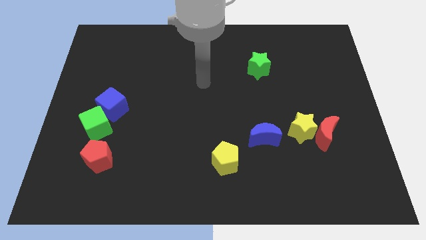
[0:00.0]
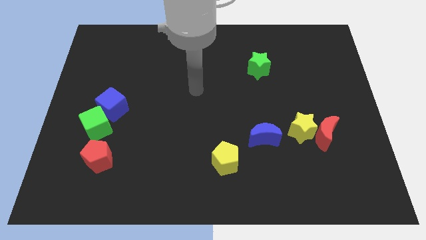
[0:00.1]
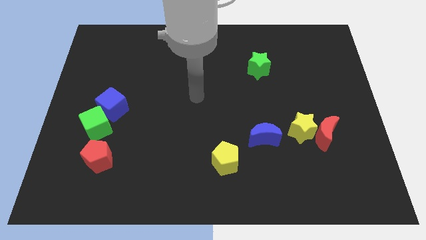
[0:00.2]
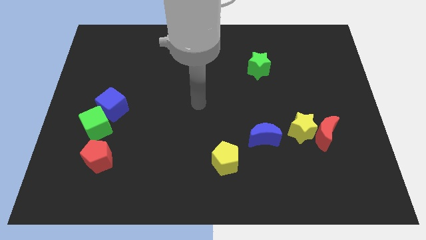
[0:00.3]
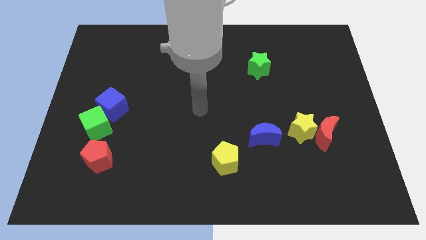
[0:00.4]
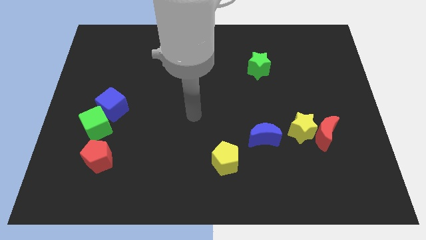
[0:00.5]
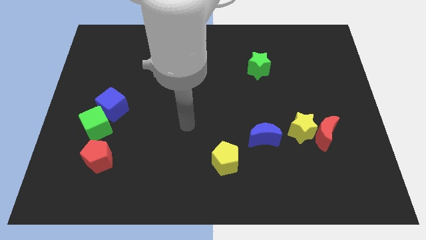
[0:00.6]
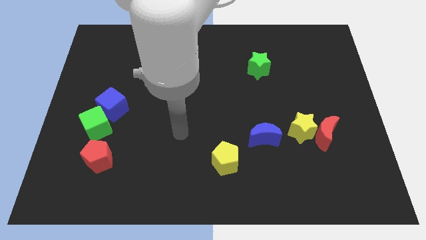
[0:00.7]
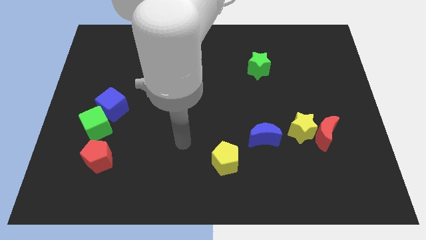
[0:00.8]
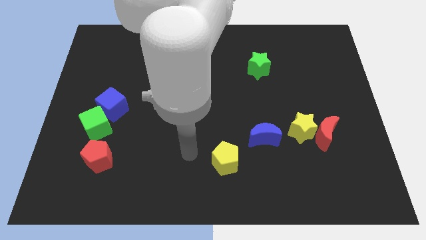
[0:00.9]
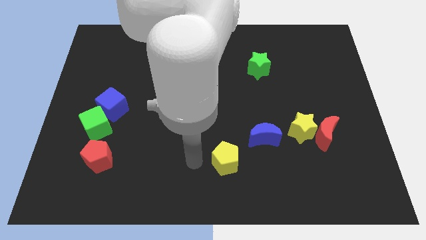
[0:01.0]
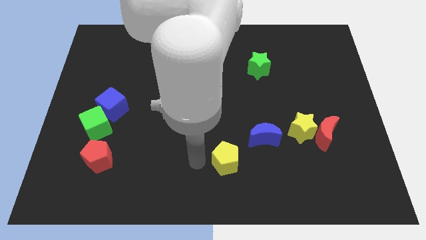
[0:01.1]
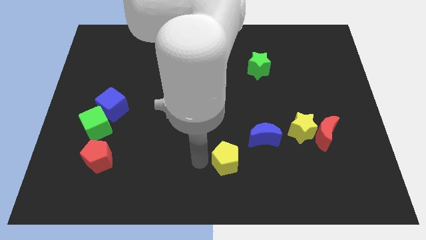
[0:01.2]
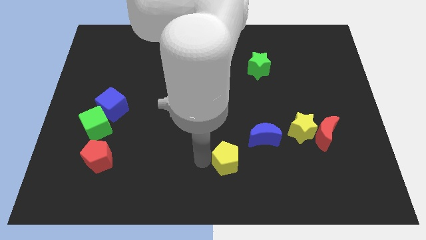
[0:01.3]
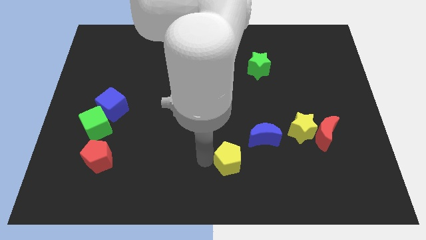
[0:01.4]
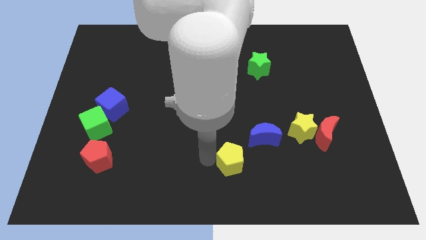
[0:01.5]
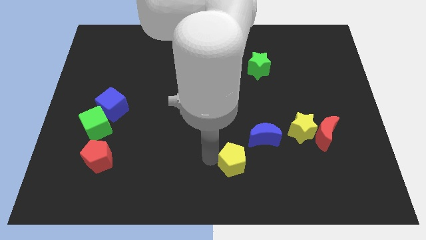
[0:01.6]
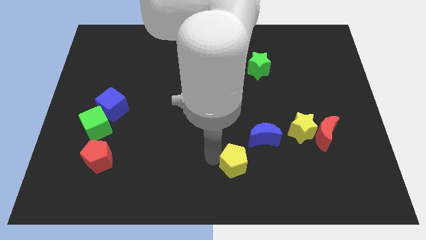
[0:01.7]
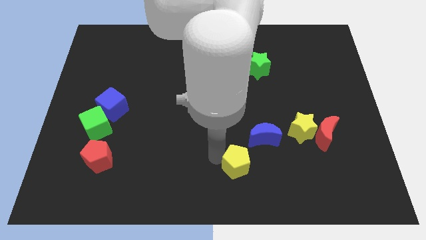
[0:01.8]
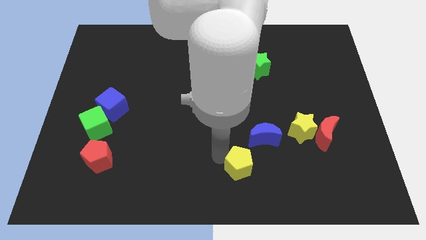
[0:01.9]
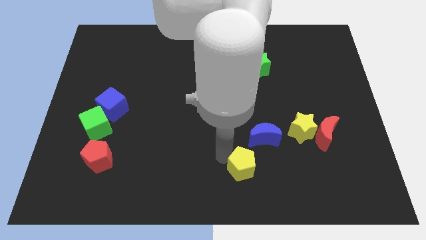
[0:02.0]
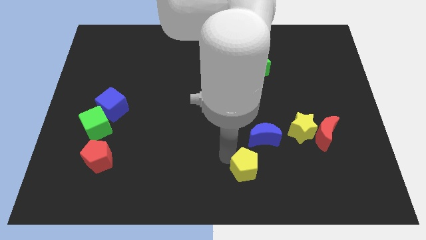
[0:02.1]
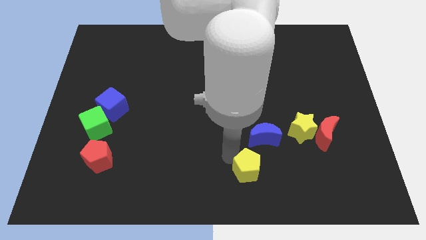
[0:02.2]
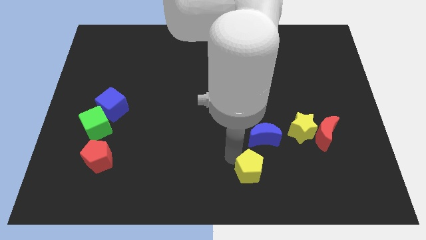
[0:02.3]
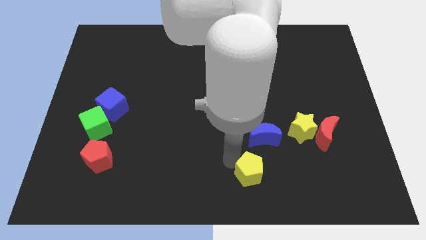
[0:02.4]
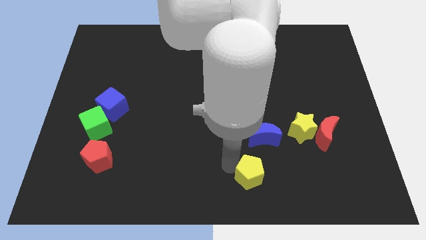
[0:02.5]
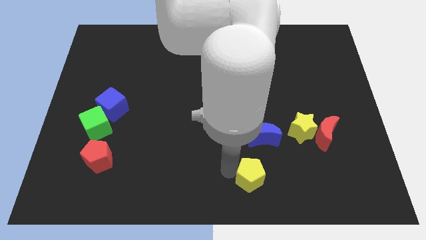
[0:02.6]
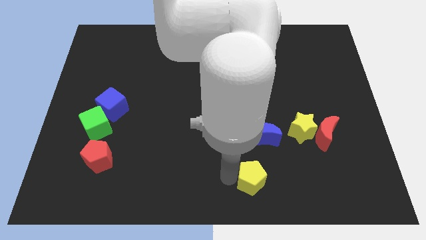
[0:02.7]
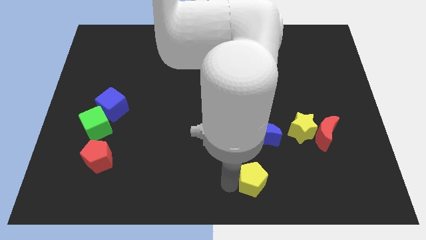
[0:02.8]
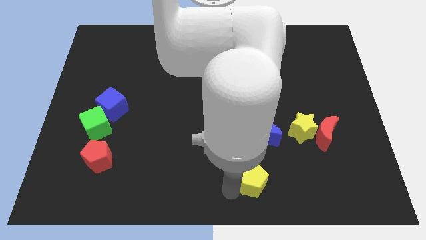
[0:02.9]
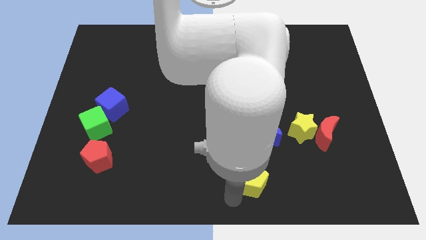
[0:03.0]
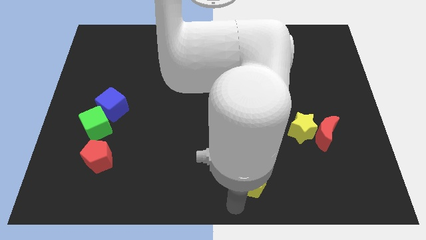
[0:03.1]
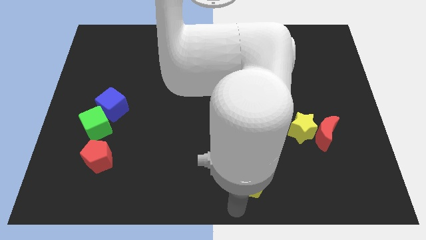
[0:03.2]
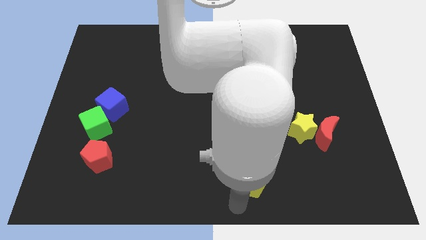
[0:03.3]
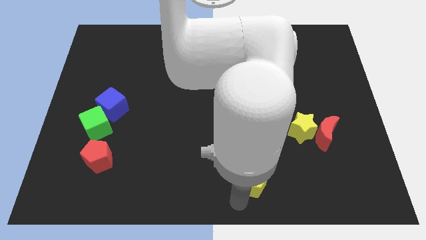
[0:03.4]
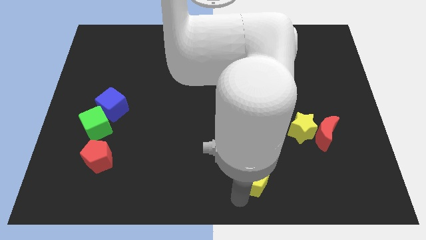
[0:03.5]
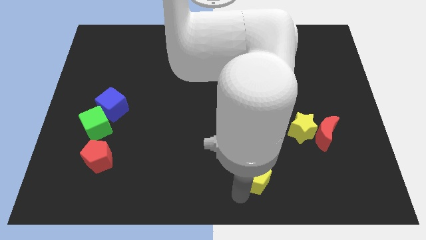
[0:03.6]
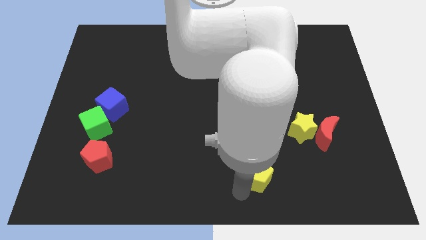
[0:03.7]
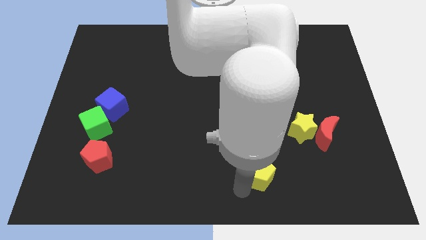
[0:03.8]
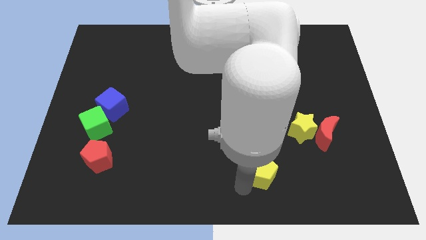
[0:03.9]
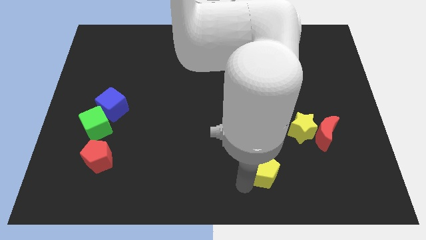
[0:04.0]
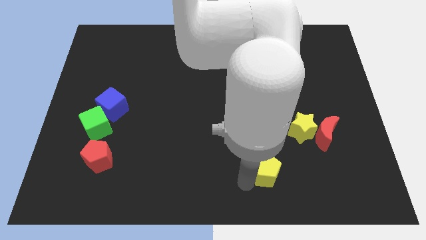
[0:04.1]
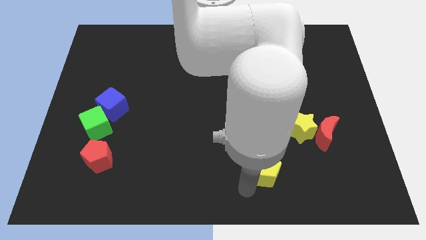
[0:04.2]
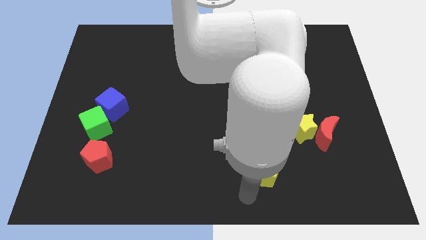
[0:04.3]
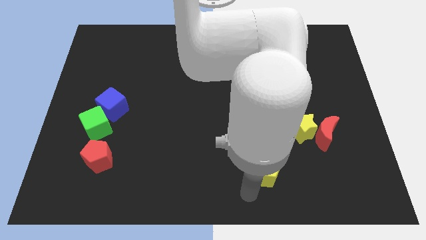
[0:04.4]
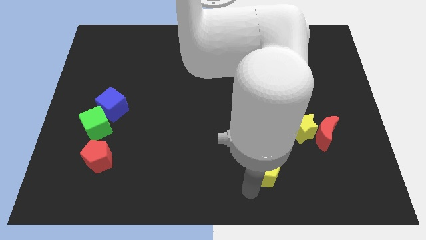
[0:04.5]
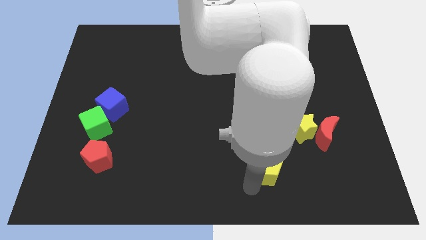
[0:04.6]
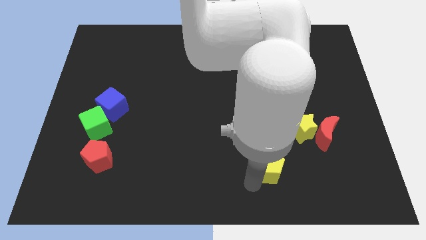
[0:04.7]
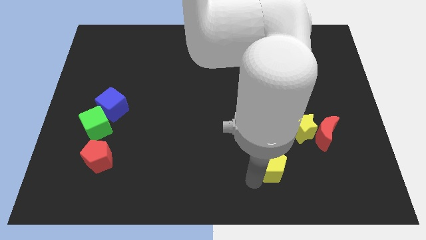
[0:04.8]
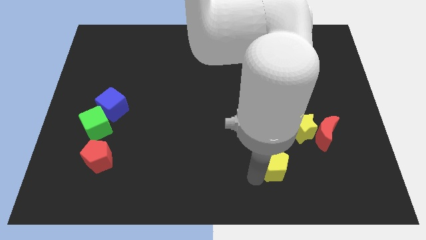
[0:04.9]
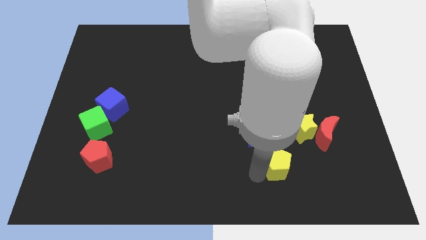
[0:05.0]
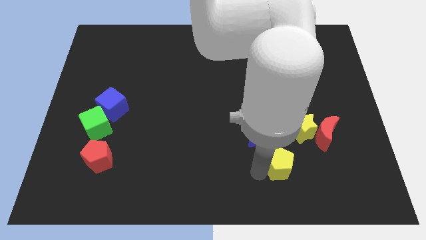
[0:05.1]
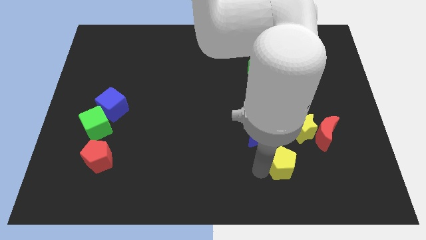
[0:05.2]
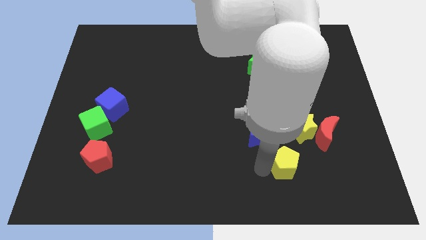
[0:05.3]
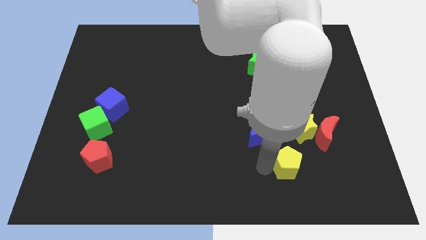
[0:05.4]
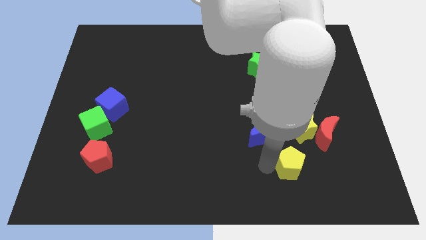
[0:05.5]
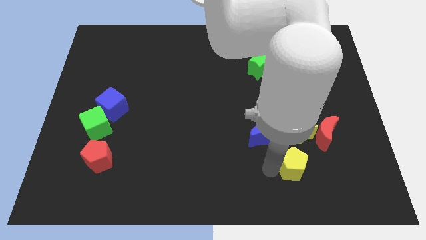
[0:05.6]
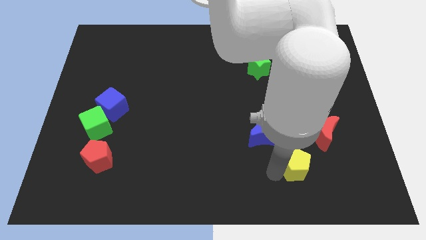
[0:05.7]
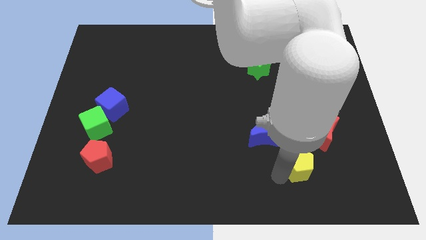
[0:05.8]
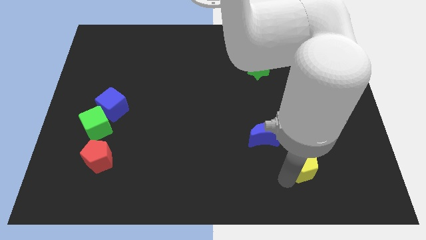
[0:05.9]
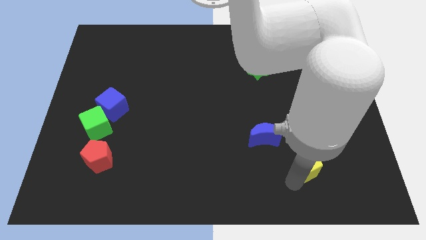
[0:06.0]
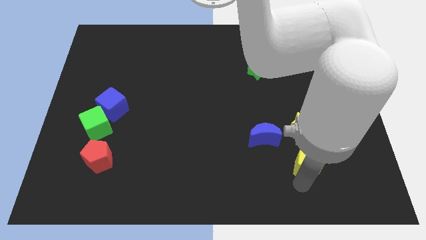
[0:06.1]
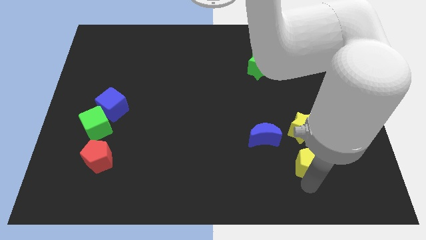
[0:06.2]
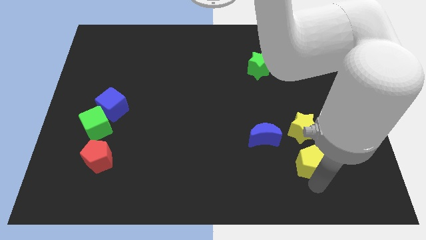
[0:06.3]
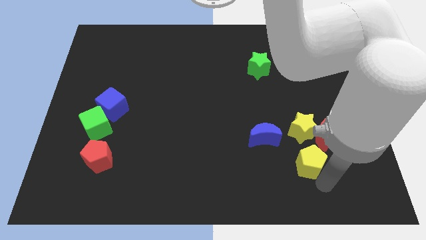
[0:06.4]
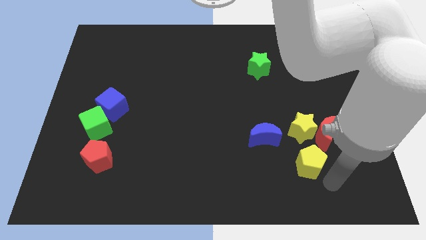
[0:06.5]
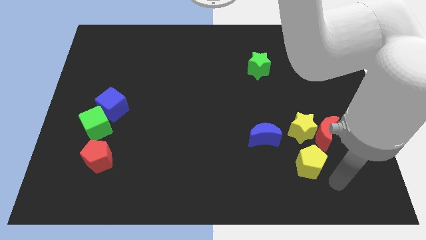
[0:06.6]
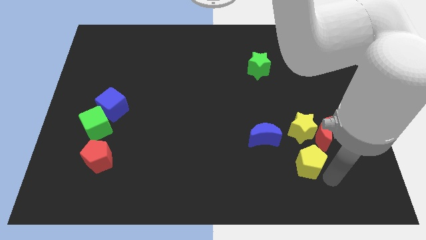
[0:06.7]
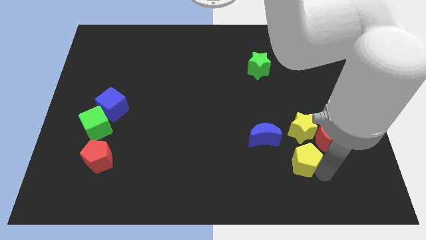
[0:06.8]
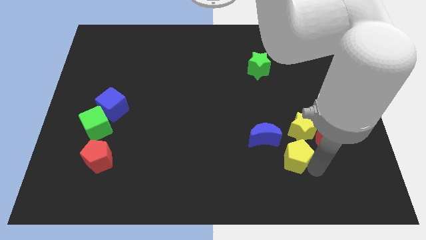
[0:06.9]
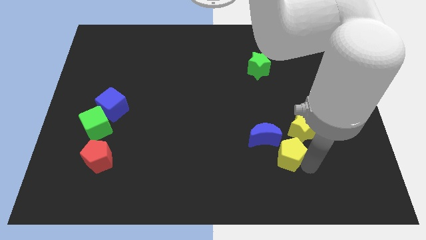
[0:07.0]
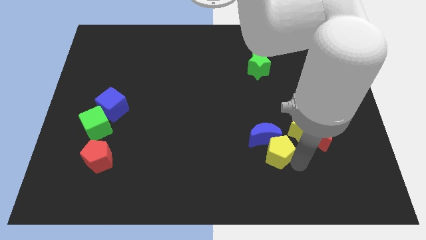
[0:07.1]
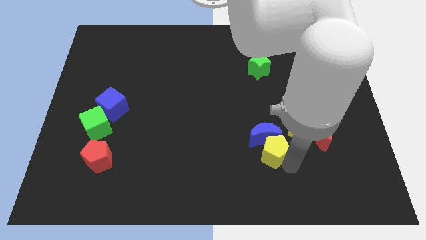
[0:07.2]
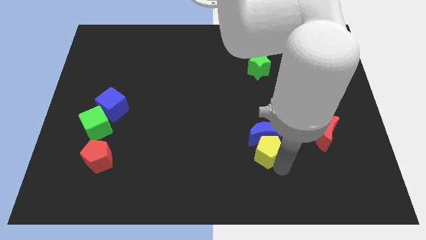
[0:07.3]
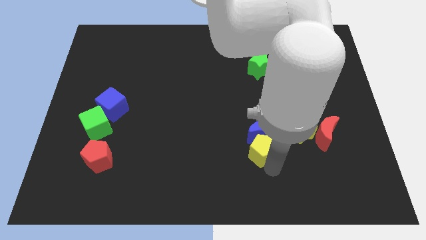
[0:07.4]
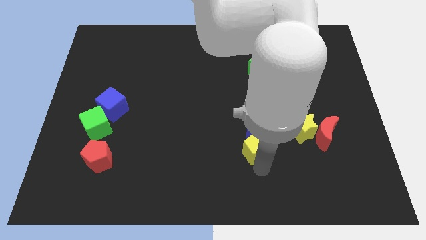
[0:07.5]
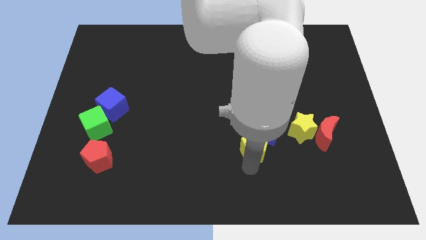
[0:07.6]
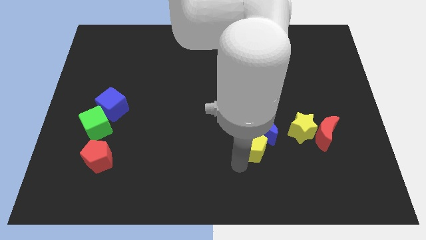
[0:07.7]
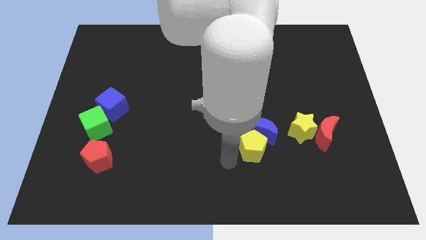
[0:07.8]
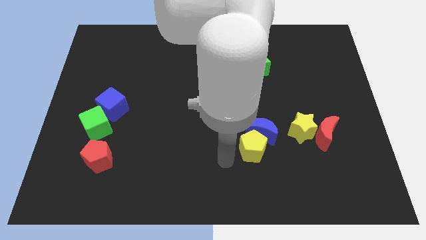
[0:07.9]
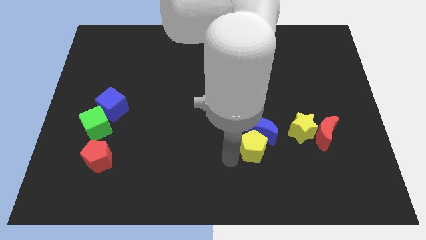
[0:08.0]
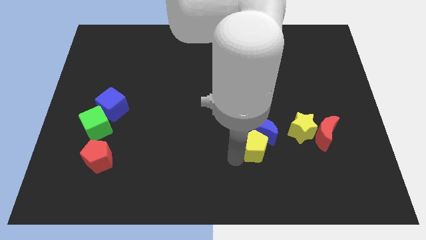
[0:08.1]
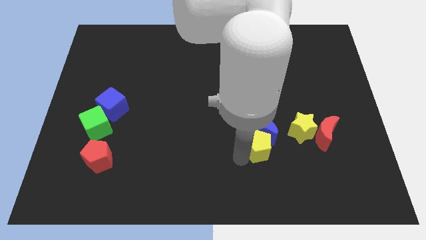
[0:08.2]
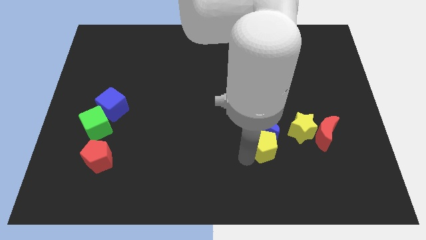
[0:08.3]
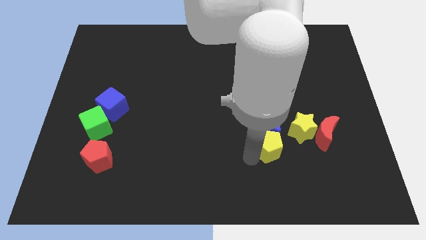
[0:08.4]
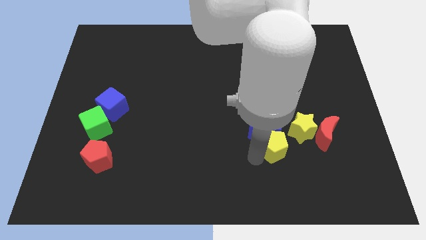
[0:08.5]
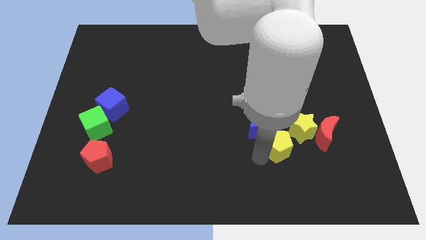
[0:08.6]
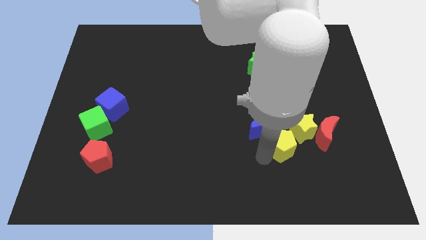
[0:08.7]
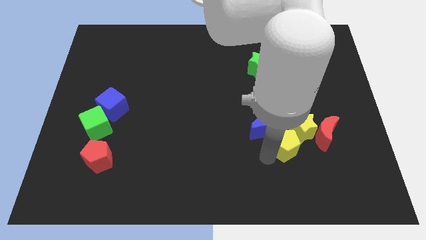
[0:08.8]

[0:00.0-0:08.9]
slide the yellow pentagon towards the yellow star
